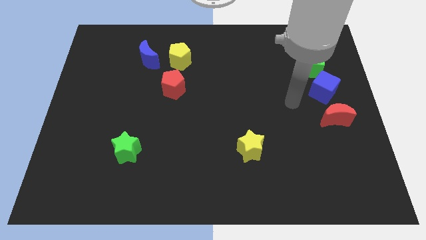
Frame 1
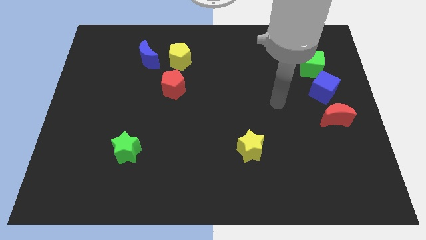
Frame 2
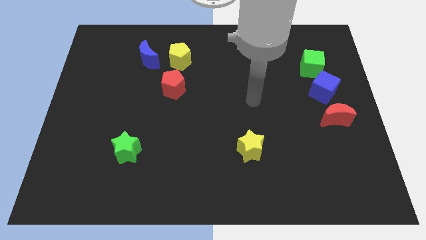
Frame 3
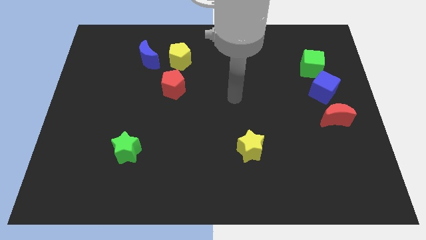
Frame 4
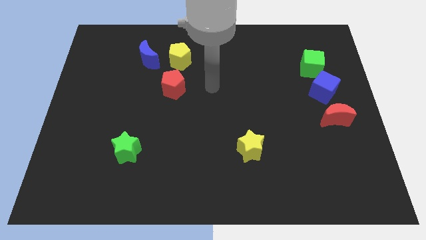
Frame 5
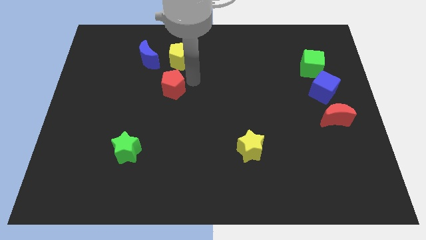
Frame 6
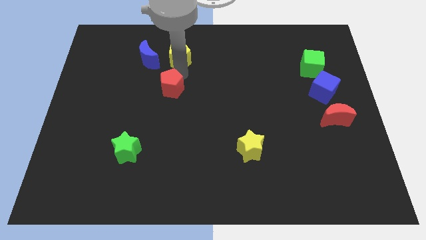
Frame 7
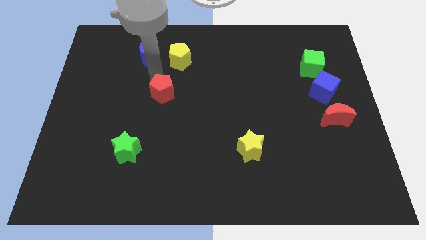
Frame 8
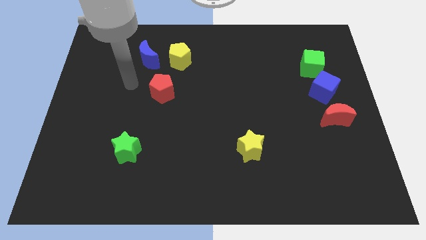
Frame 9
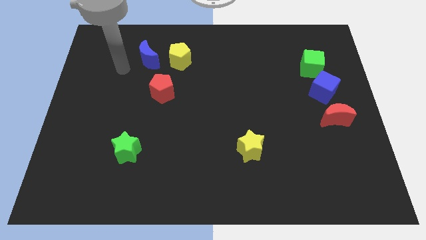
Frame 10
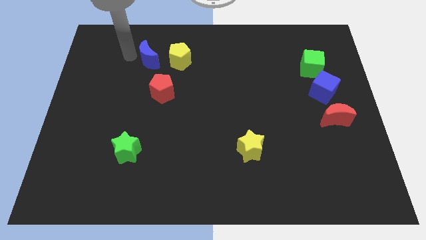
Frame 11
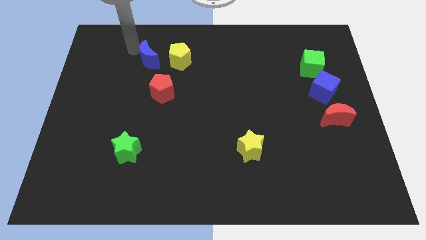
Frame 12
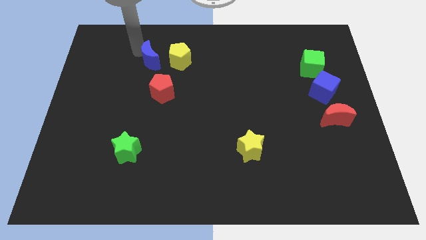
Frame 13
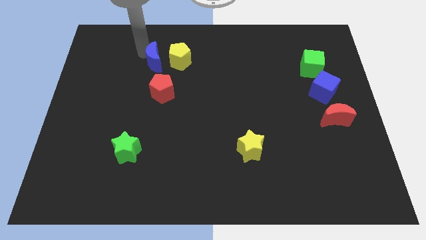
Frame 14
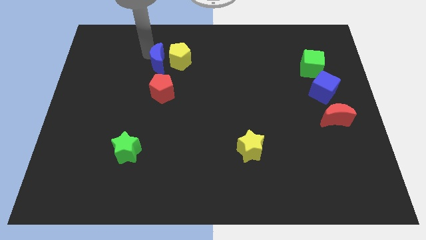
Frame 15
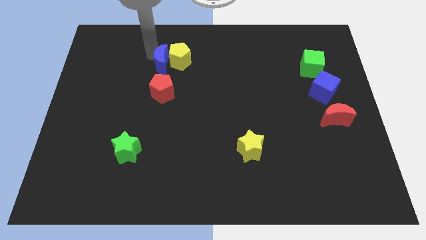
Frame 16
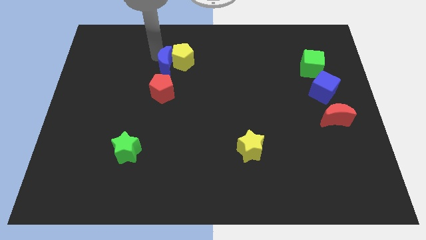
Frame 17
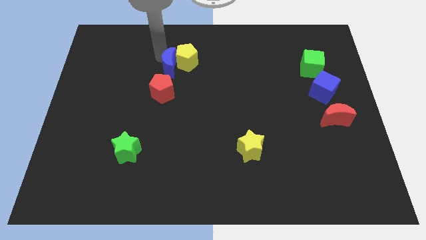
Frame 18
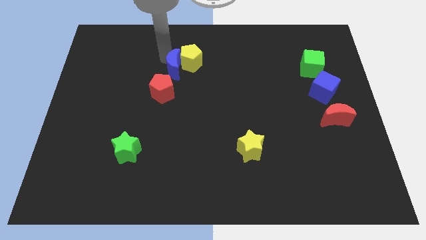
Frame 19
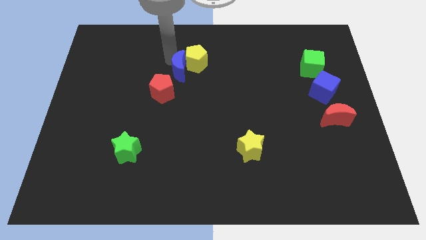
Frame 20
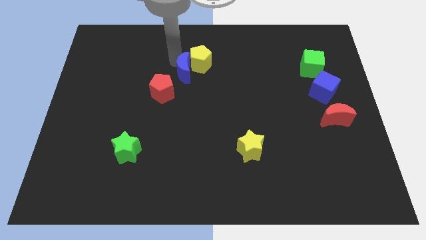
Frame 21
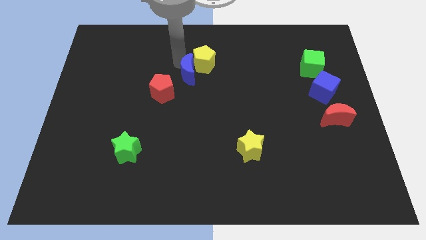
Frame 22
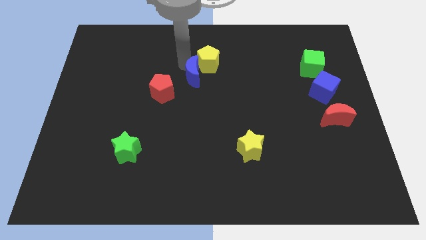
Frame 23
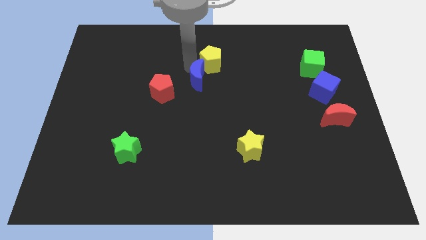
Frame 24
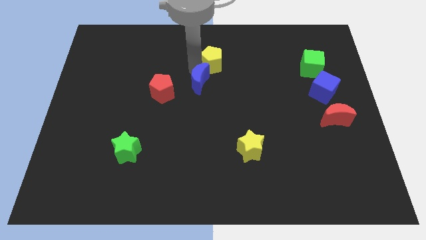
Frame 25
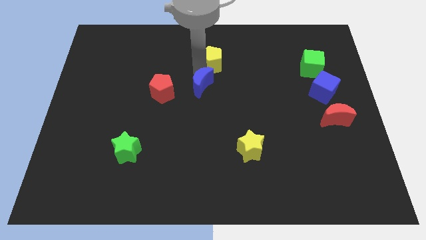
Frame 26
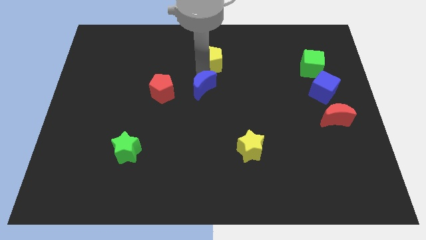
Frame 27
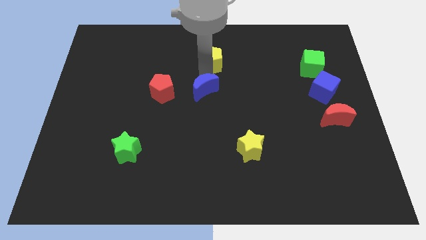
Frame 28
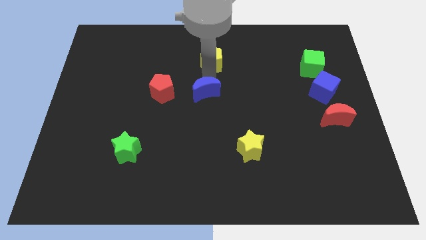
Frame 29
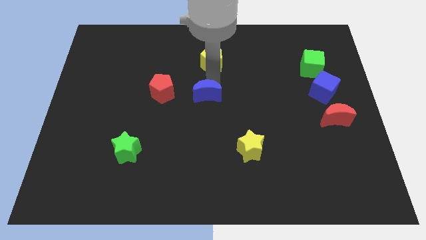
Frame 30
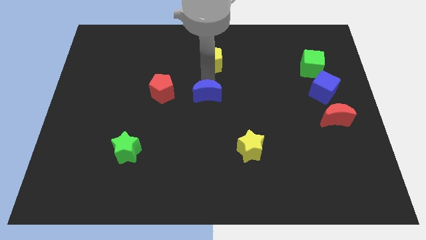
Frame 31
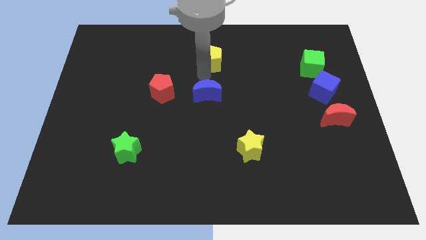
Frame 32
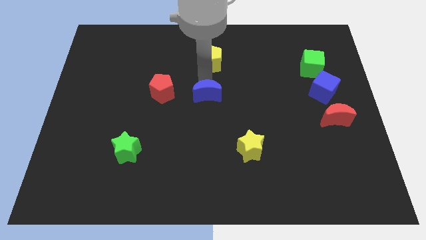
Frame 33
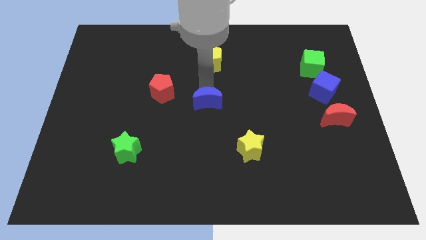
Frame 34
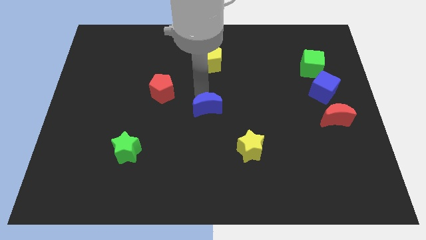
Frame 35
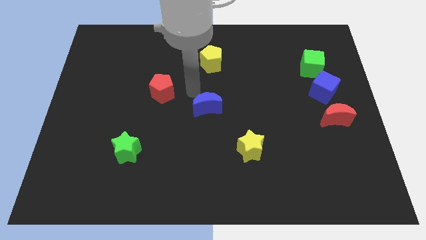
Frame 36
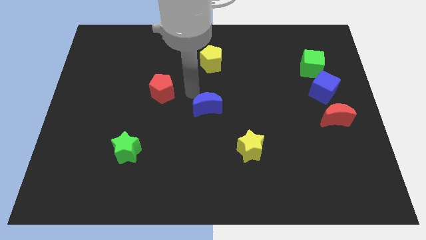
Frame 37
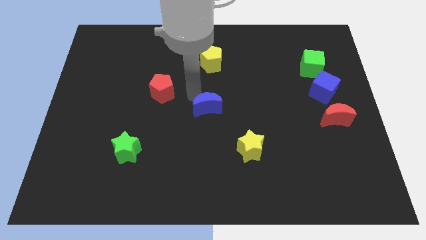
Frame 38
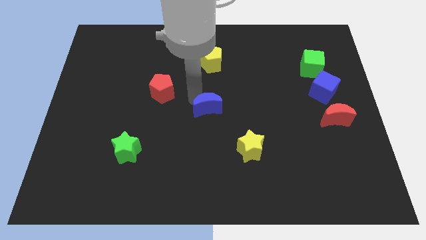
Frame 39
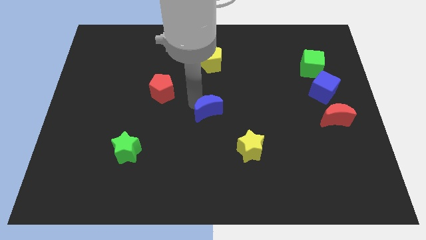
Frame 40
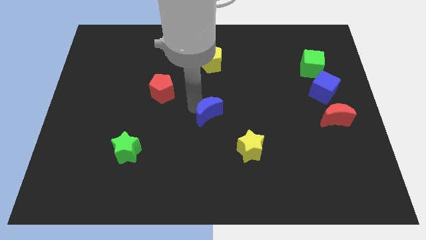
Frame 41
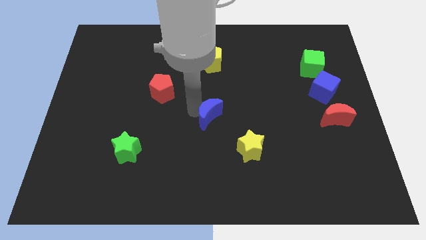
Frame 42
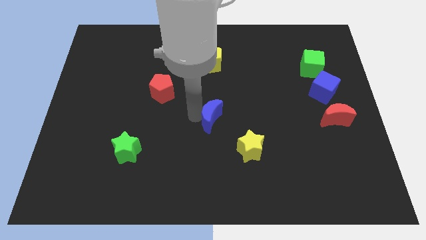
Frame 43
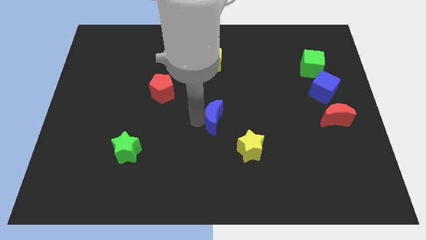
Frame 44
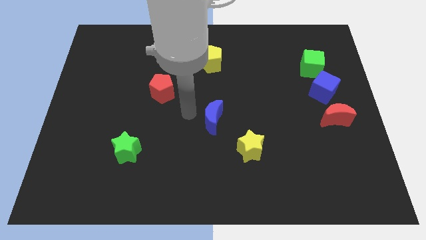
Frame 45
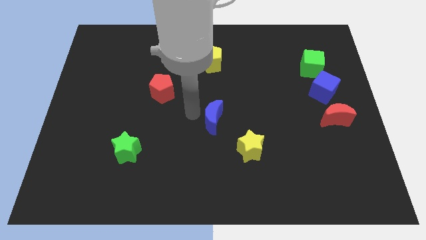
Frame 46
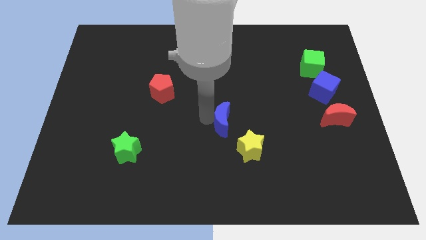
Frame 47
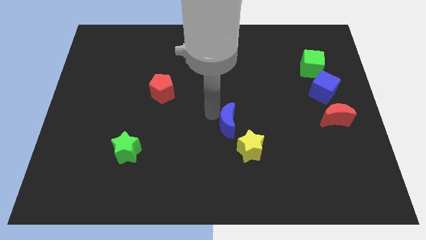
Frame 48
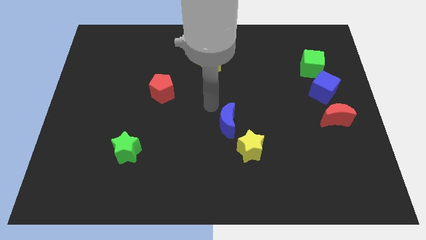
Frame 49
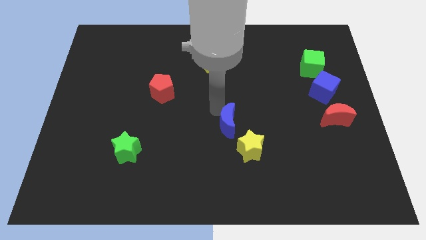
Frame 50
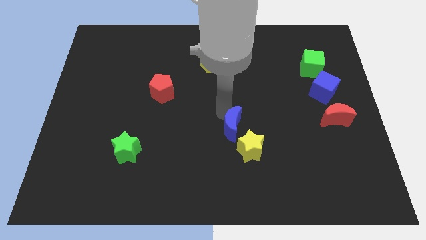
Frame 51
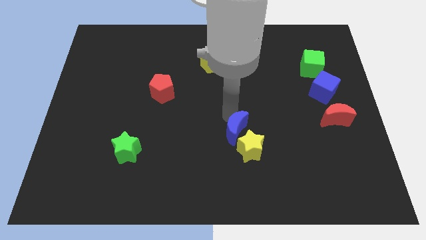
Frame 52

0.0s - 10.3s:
slide the blue moon to the yellow star

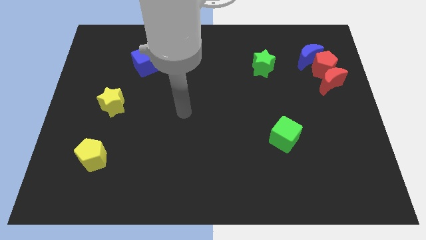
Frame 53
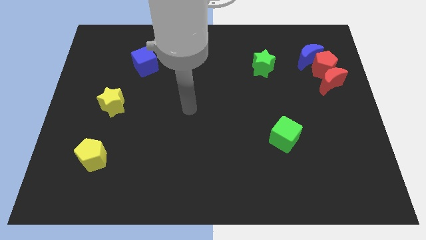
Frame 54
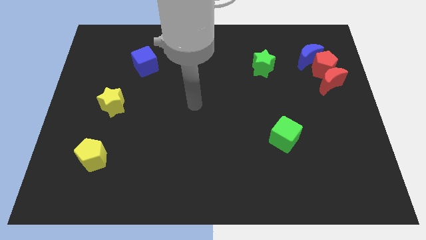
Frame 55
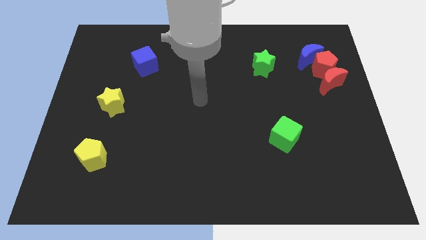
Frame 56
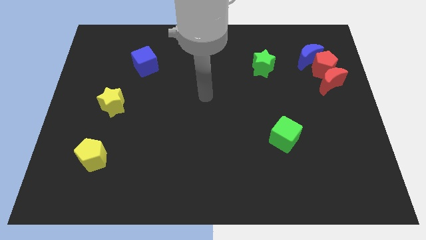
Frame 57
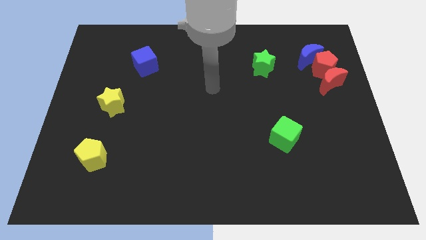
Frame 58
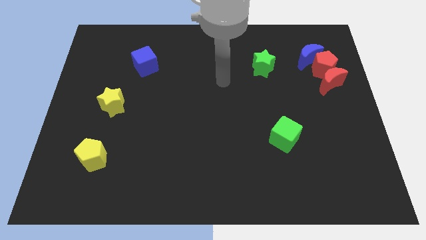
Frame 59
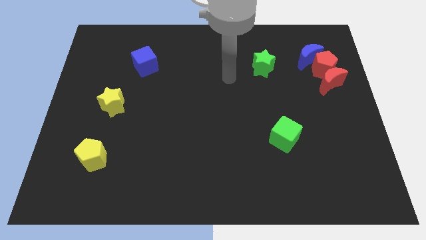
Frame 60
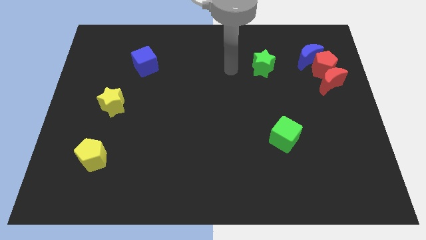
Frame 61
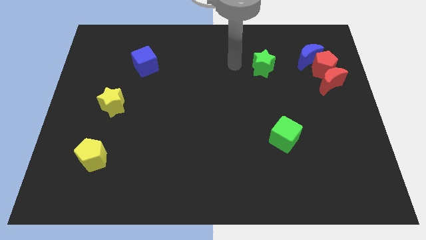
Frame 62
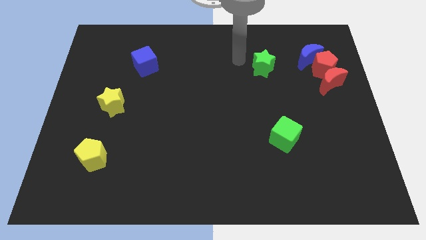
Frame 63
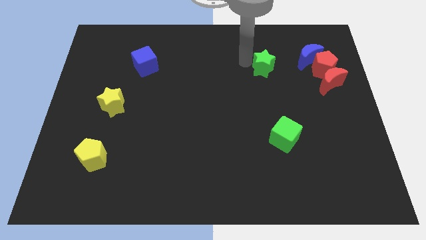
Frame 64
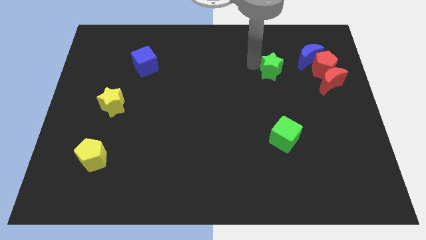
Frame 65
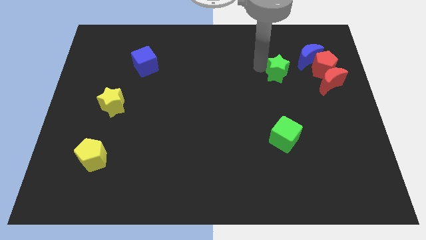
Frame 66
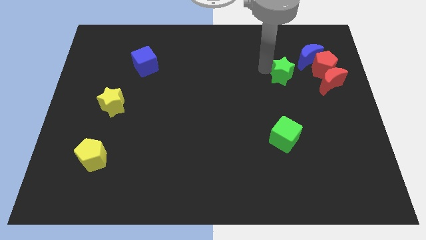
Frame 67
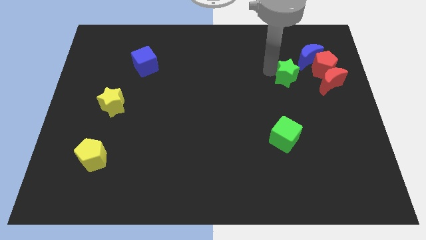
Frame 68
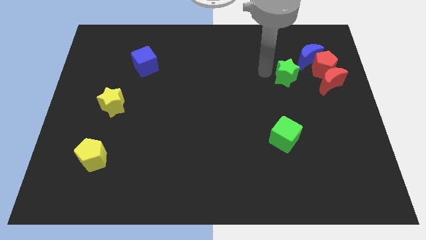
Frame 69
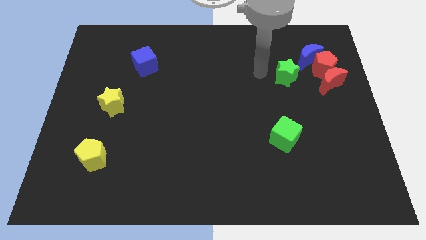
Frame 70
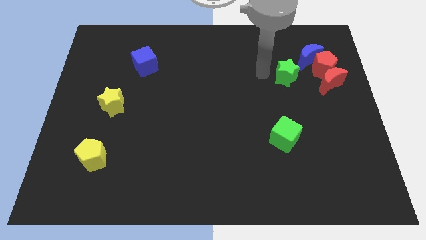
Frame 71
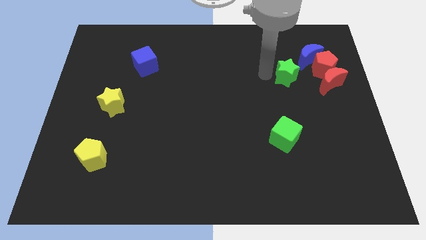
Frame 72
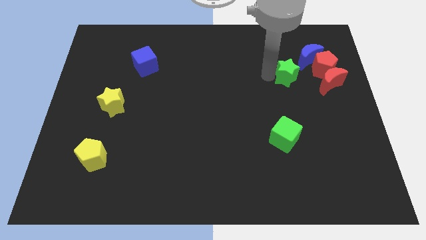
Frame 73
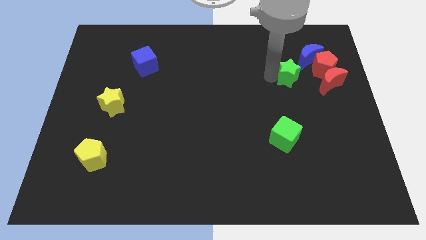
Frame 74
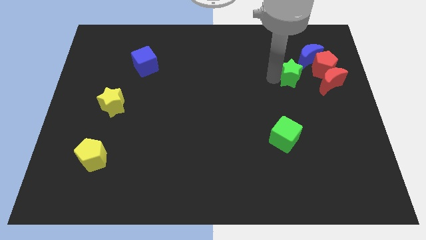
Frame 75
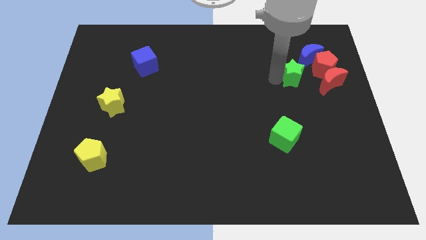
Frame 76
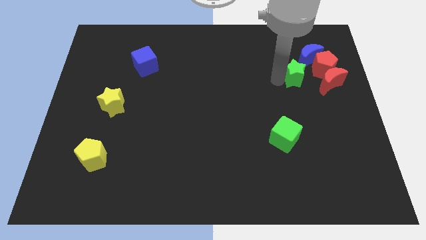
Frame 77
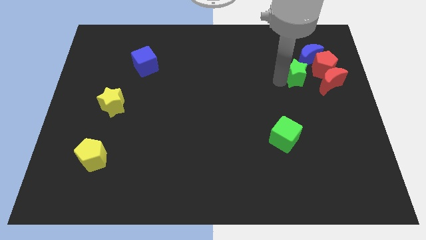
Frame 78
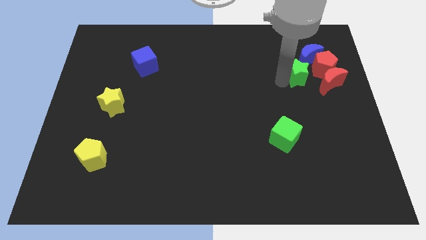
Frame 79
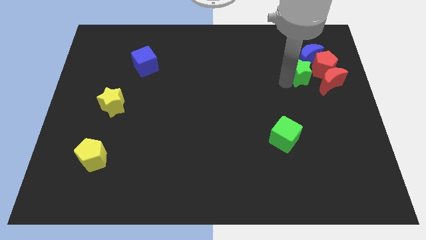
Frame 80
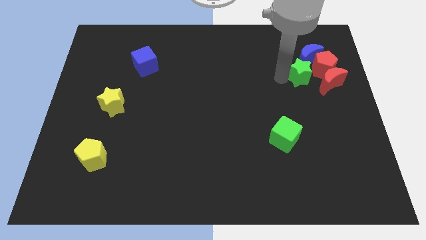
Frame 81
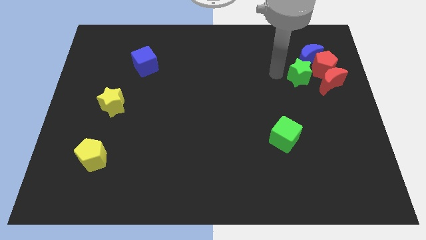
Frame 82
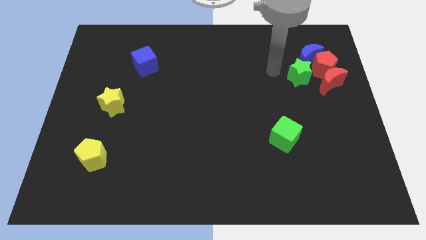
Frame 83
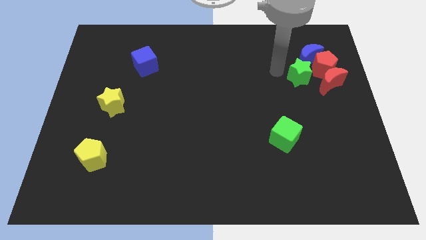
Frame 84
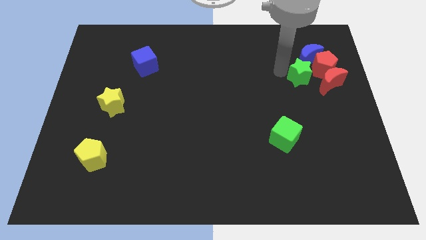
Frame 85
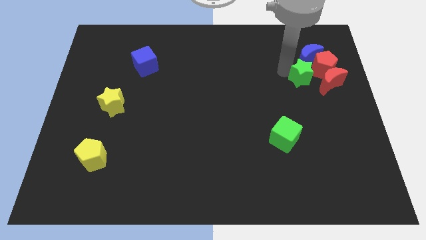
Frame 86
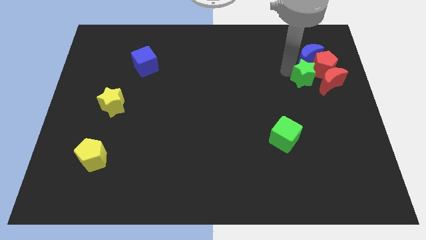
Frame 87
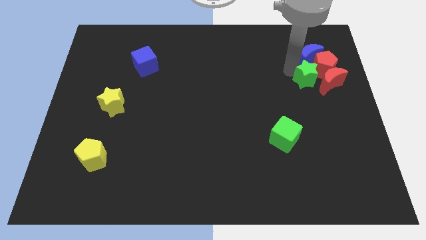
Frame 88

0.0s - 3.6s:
push the green star to the red moon
